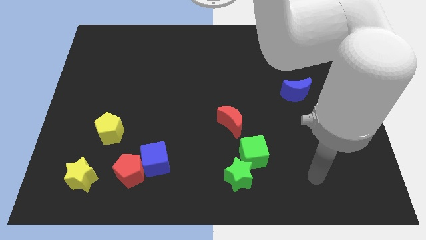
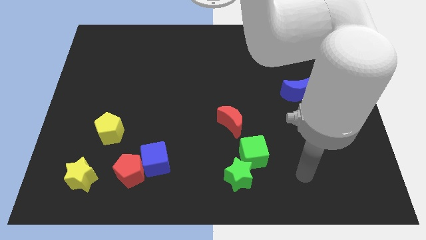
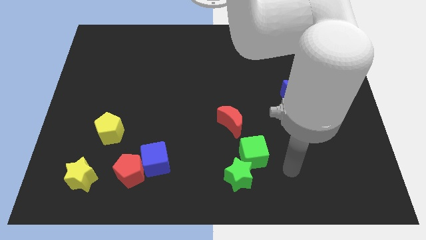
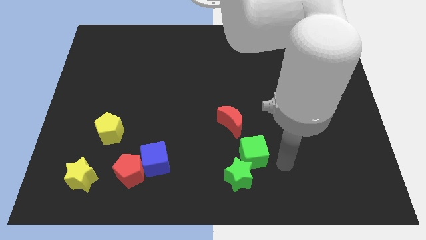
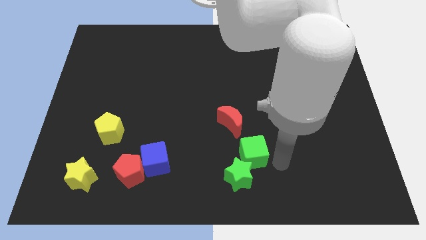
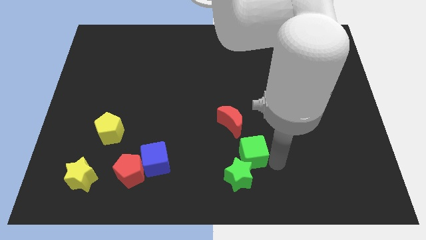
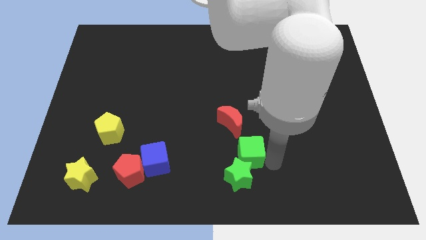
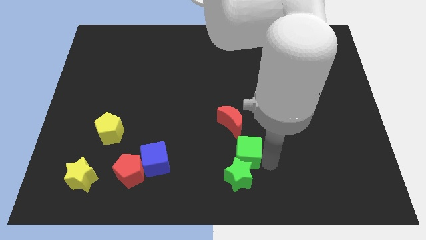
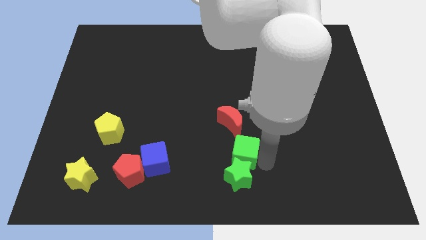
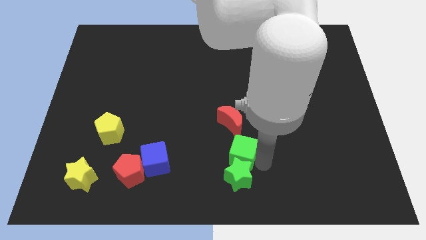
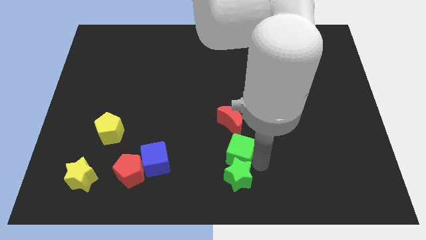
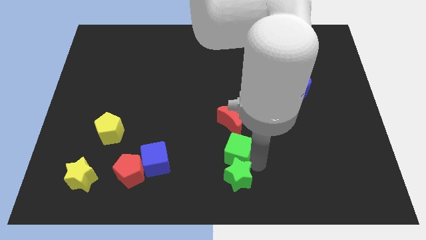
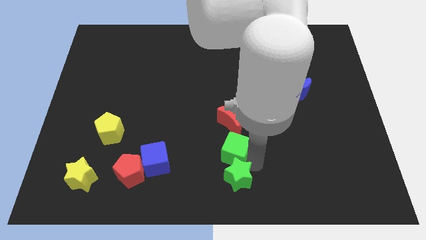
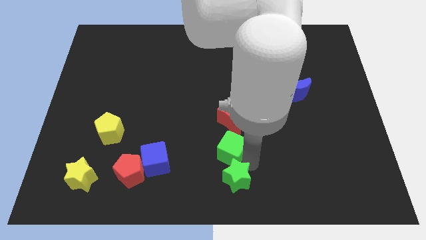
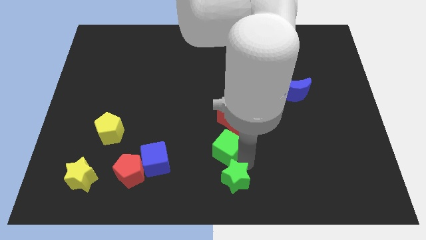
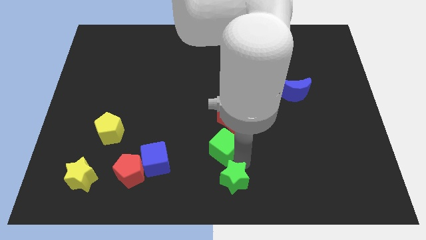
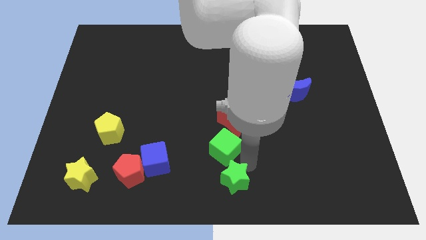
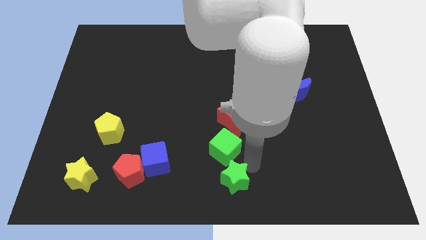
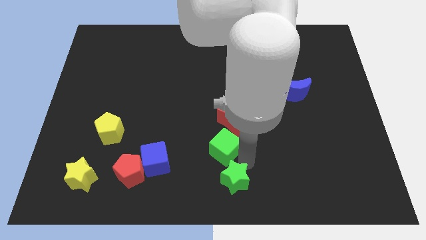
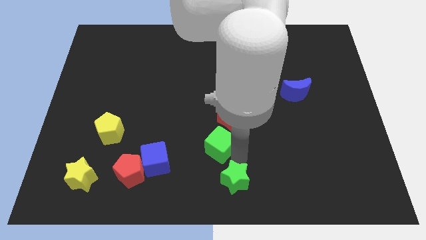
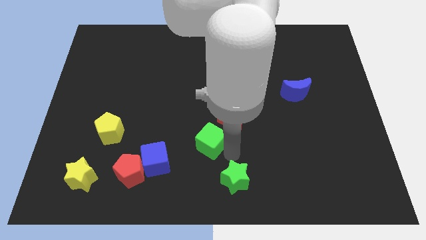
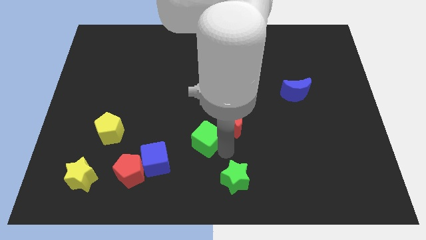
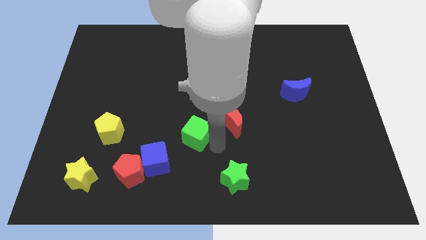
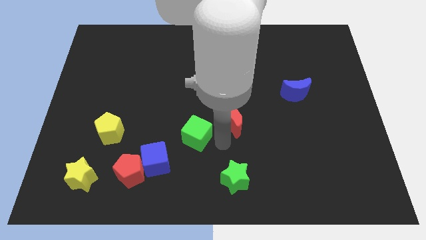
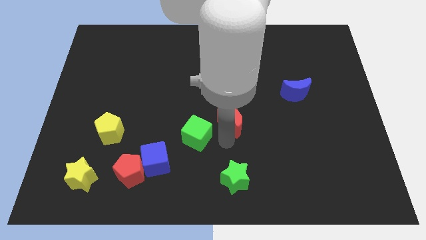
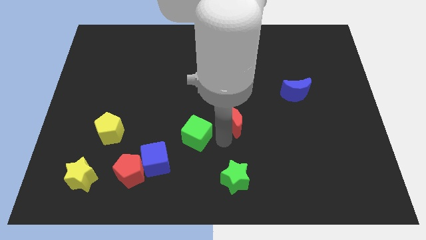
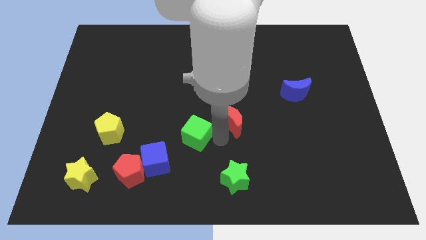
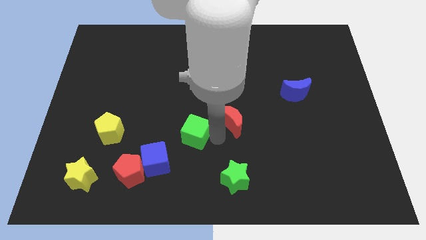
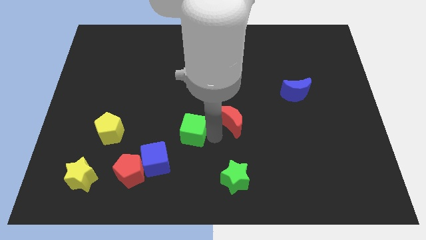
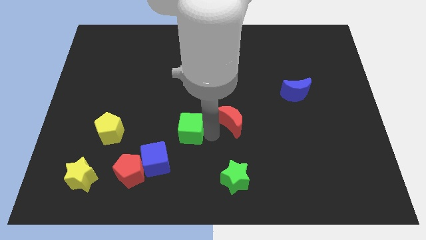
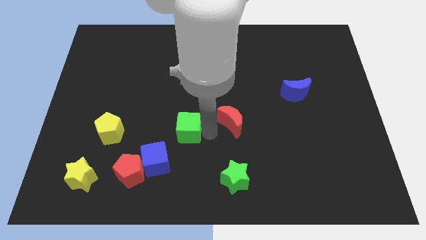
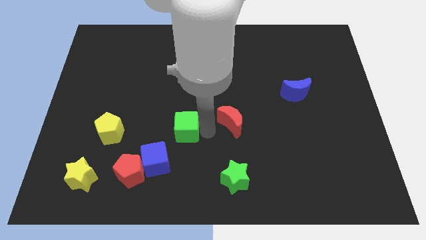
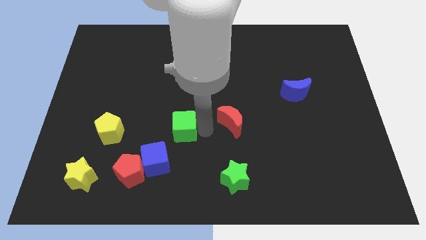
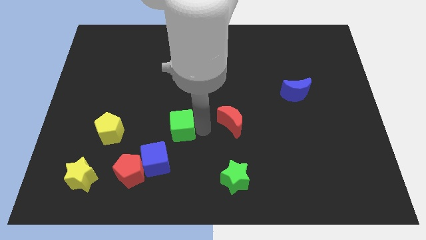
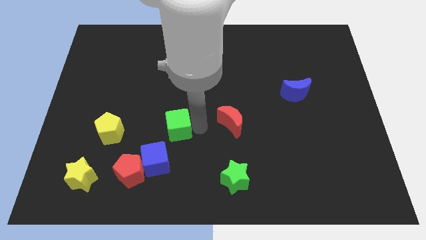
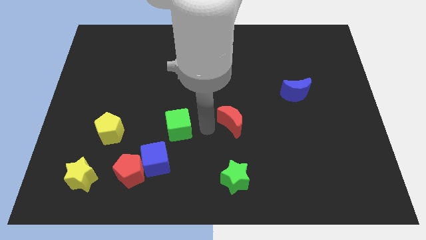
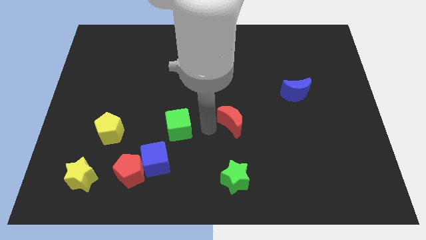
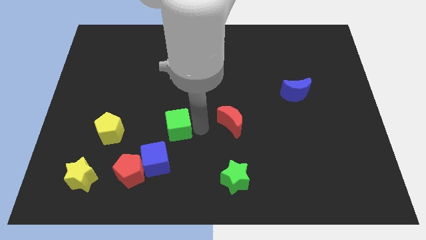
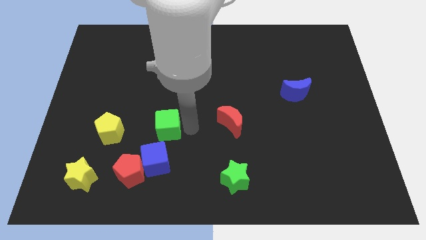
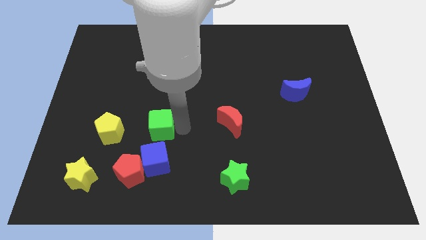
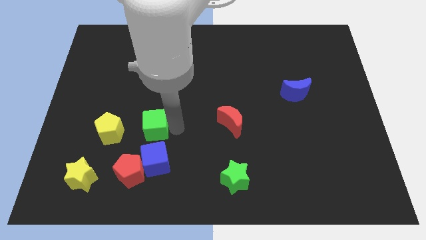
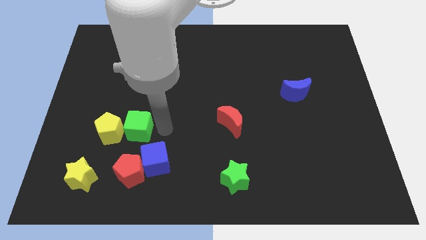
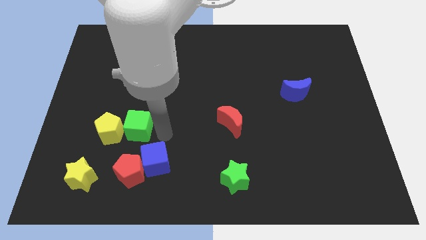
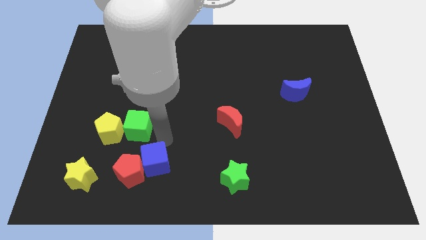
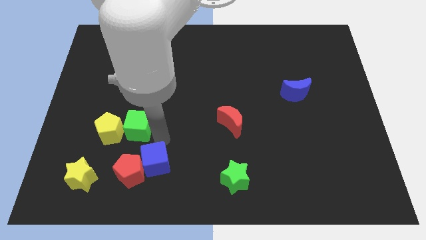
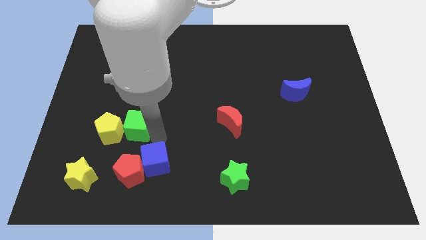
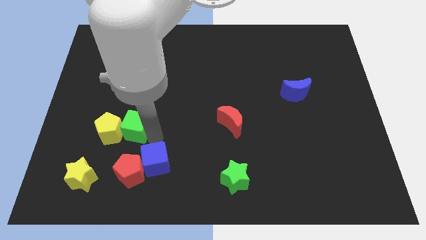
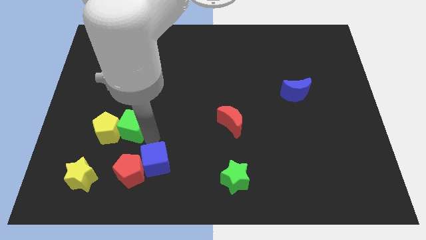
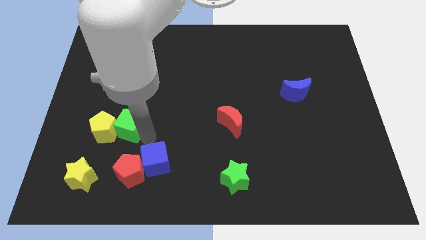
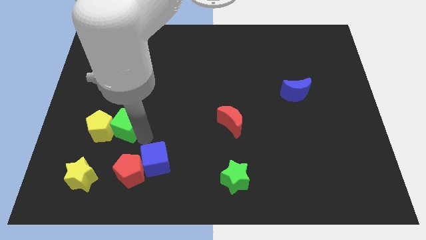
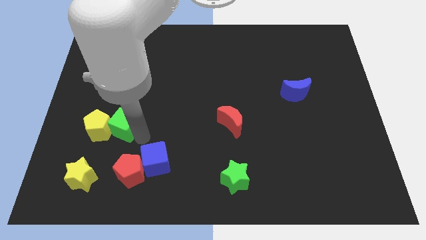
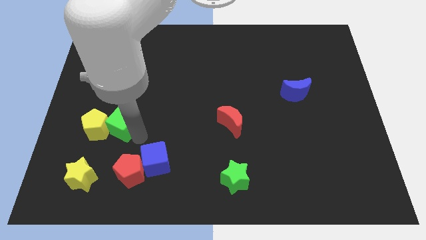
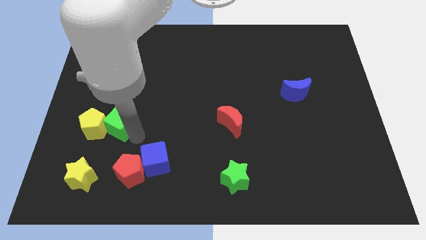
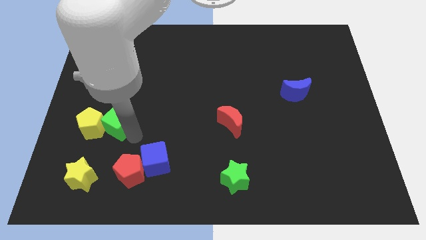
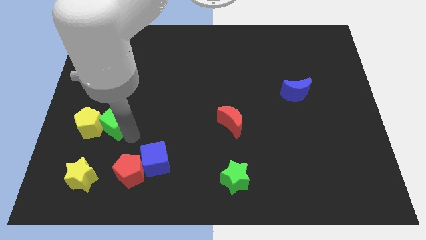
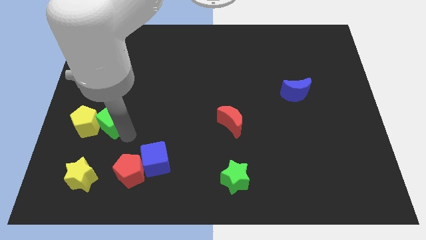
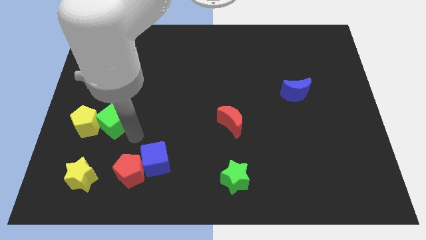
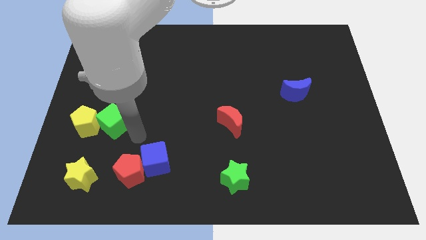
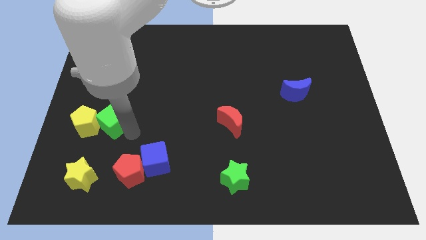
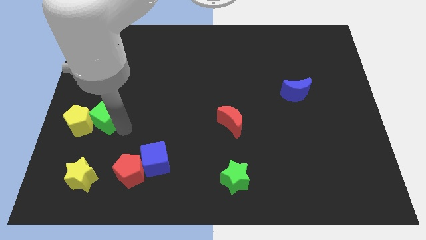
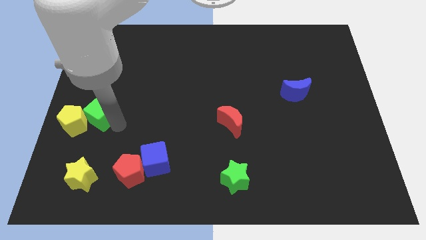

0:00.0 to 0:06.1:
put the green cube to the center left
